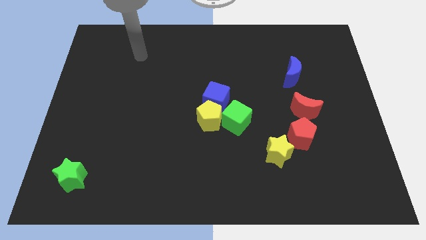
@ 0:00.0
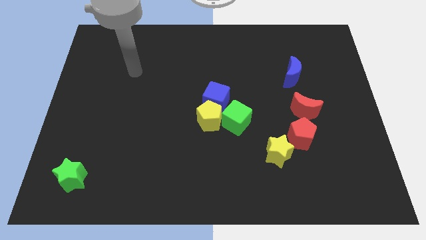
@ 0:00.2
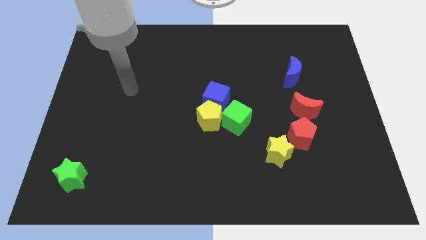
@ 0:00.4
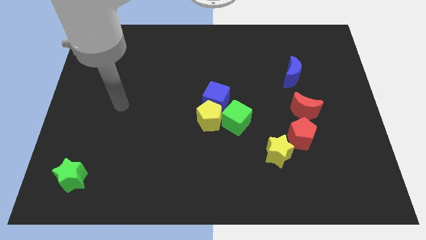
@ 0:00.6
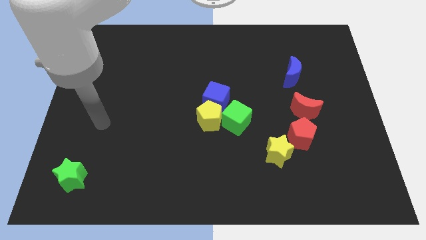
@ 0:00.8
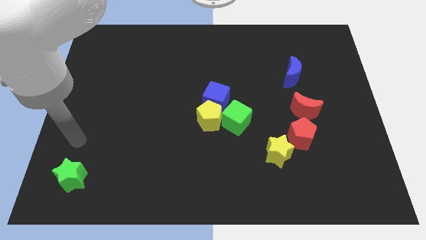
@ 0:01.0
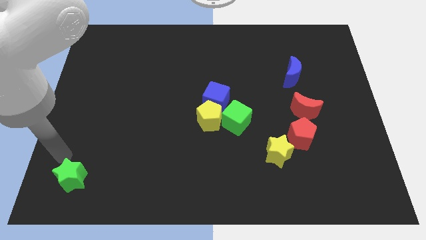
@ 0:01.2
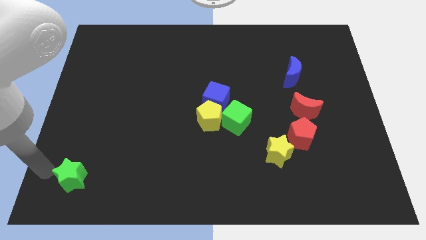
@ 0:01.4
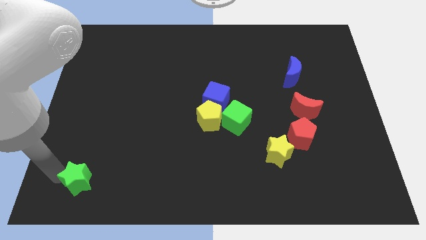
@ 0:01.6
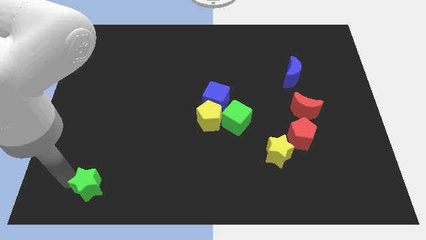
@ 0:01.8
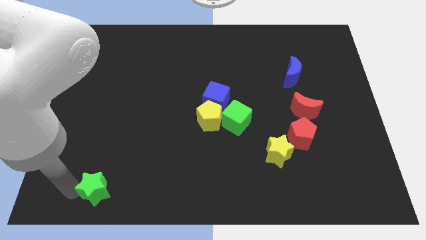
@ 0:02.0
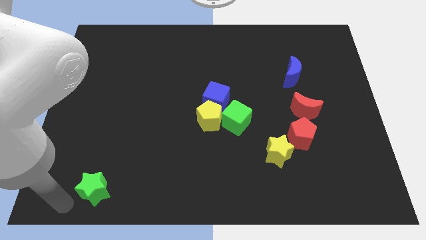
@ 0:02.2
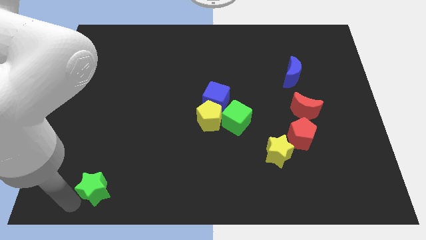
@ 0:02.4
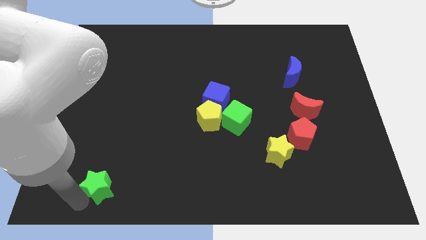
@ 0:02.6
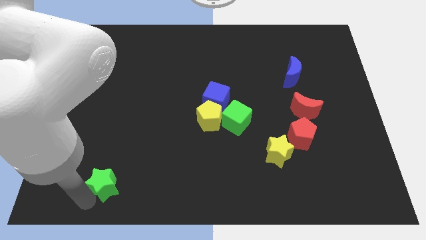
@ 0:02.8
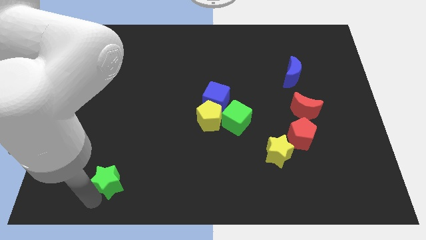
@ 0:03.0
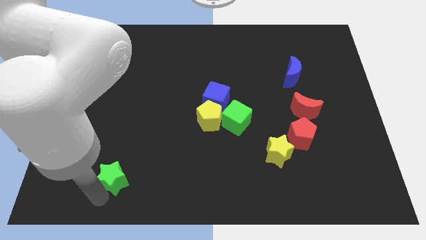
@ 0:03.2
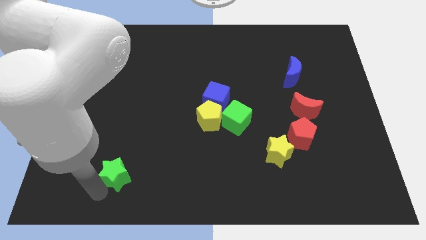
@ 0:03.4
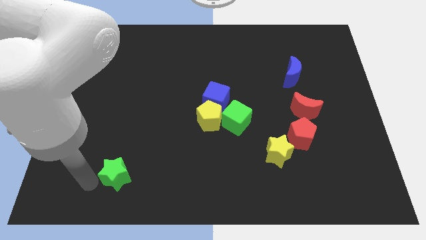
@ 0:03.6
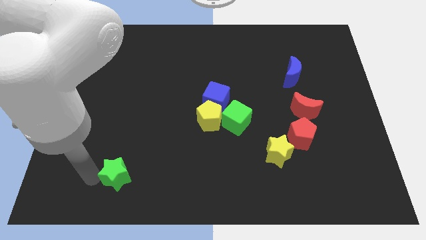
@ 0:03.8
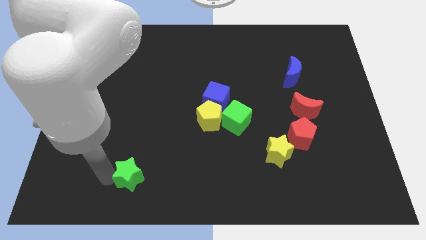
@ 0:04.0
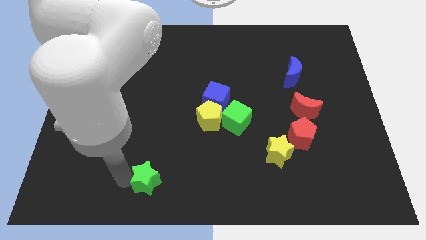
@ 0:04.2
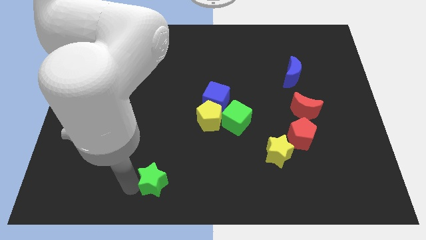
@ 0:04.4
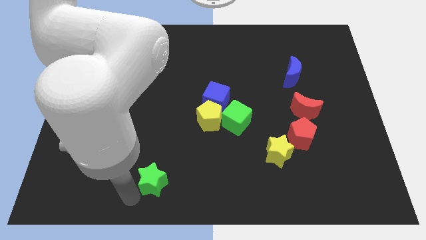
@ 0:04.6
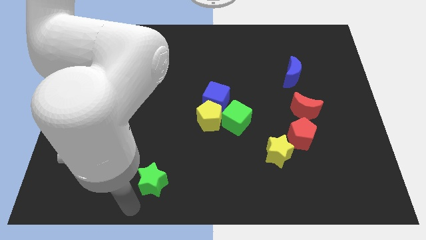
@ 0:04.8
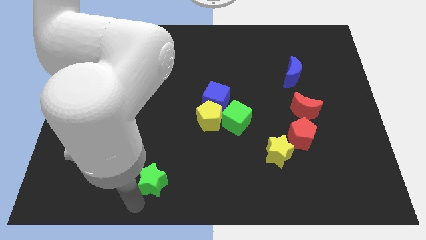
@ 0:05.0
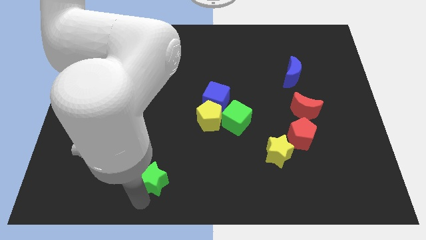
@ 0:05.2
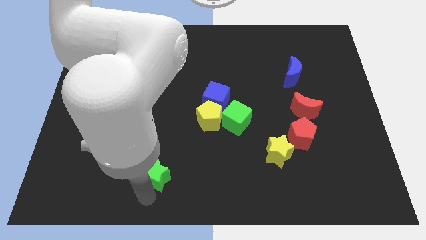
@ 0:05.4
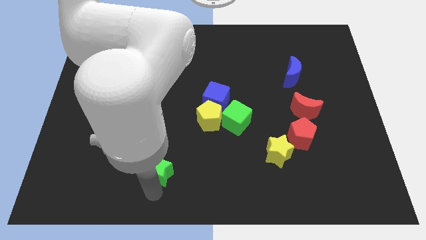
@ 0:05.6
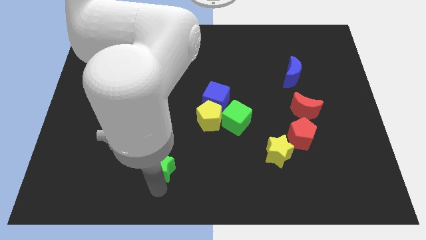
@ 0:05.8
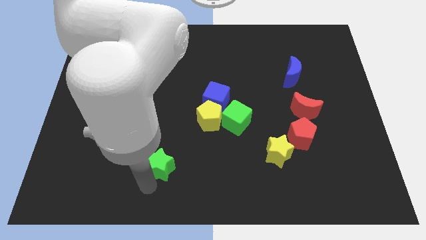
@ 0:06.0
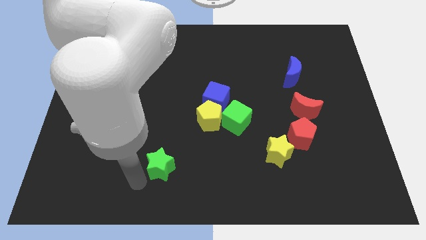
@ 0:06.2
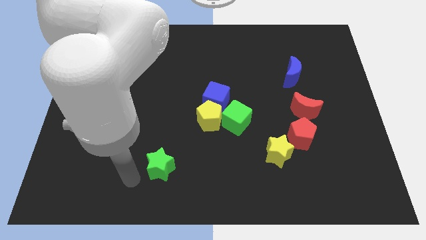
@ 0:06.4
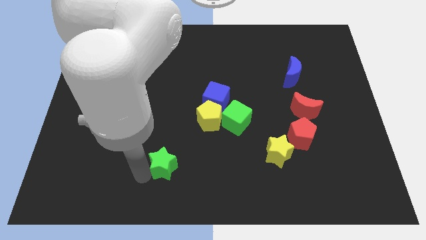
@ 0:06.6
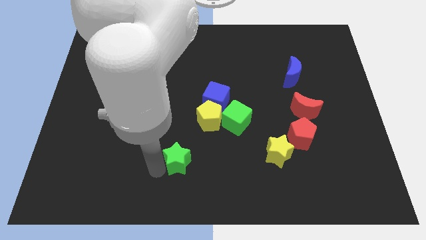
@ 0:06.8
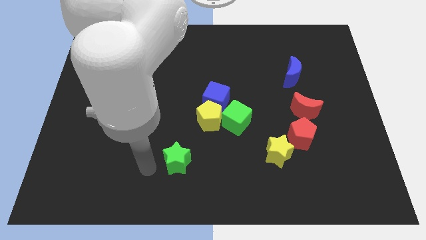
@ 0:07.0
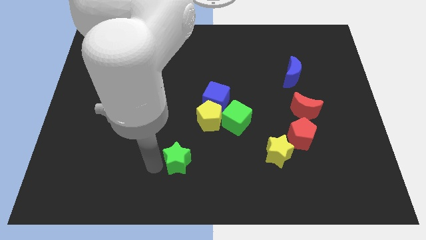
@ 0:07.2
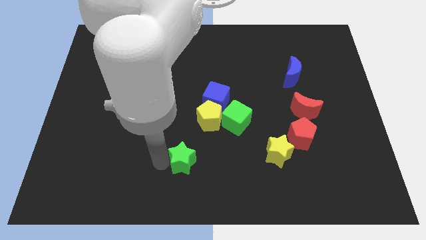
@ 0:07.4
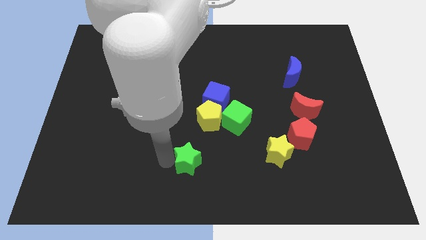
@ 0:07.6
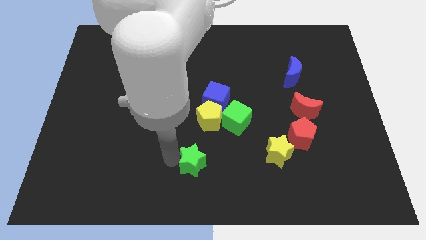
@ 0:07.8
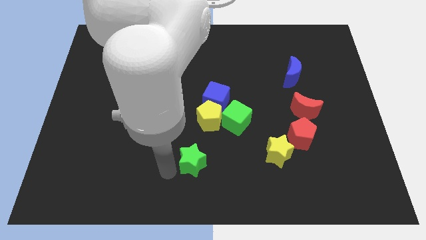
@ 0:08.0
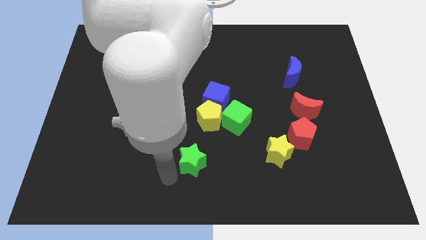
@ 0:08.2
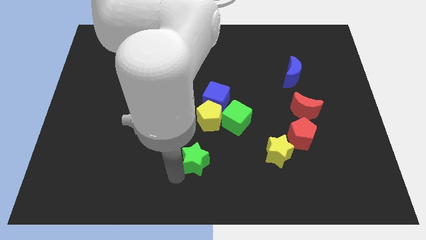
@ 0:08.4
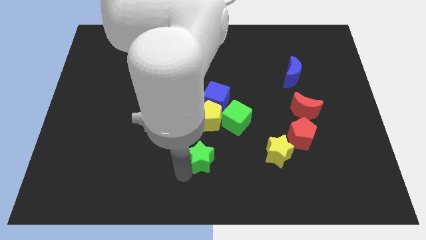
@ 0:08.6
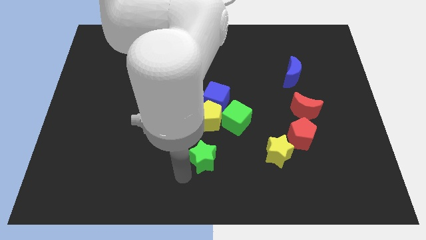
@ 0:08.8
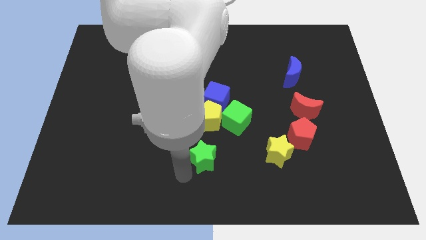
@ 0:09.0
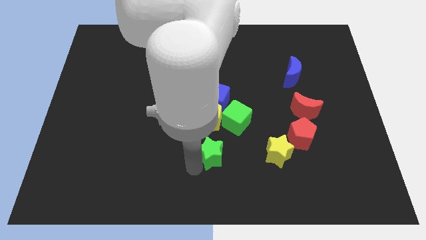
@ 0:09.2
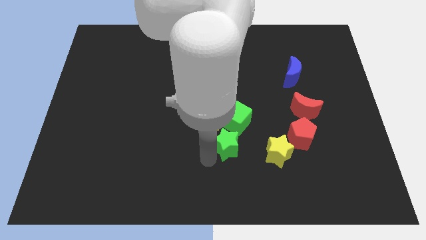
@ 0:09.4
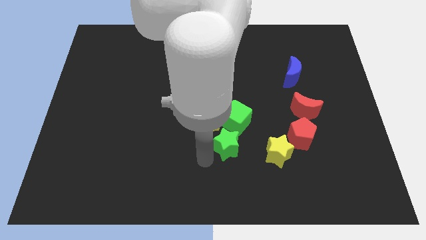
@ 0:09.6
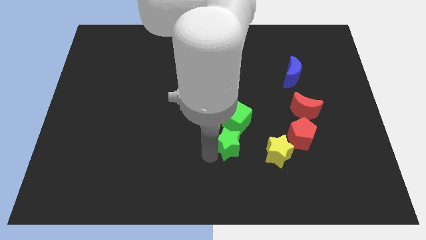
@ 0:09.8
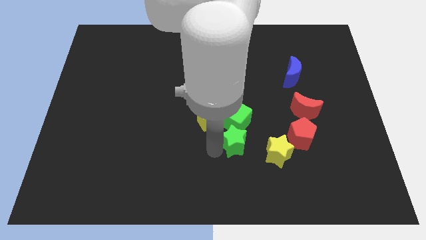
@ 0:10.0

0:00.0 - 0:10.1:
push the green star to the top left side of the yellow star

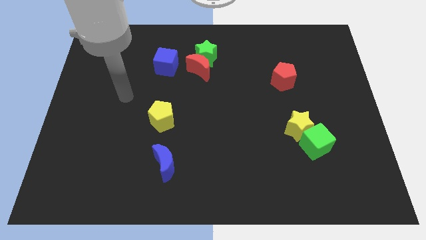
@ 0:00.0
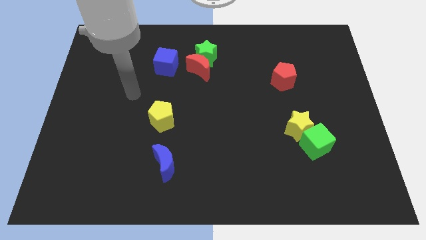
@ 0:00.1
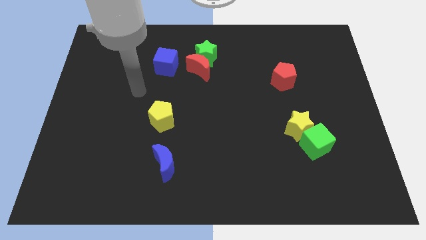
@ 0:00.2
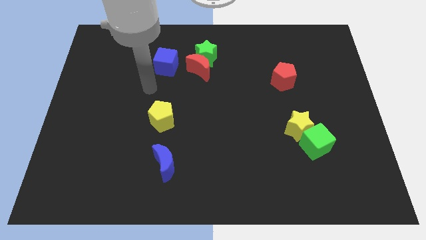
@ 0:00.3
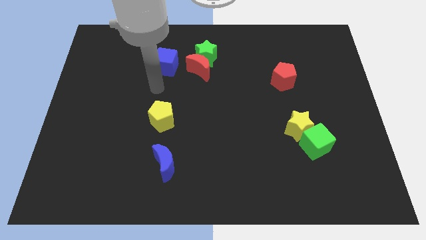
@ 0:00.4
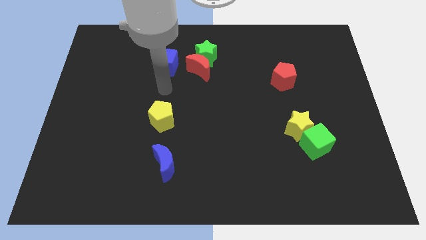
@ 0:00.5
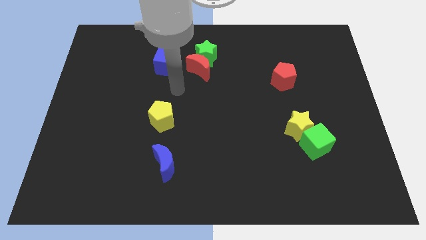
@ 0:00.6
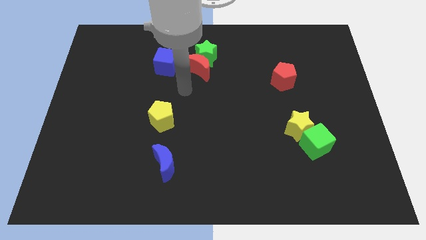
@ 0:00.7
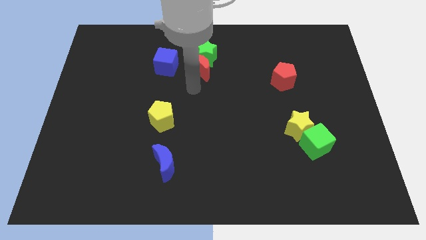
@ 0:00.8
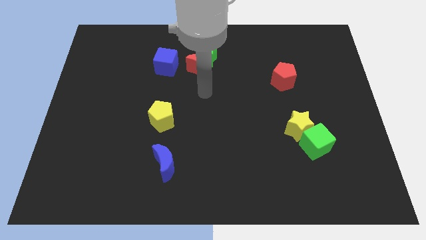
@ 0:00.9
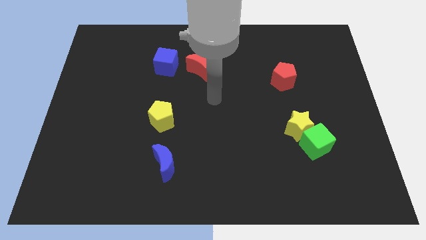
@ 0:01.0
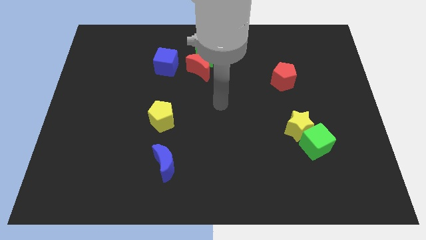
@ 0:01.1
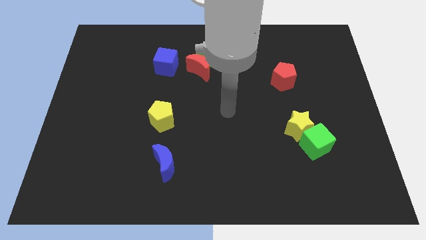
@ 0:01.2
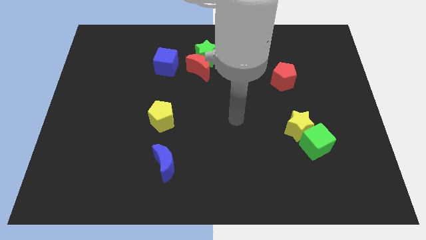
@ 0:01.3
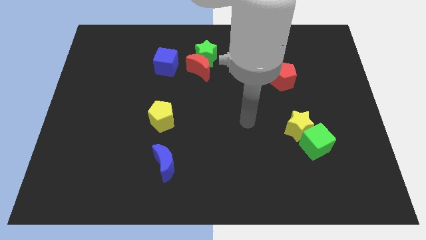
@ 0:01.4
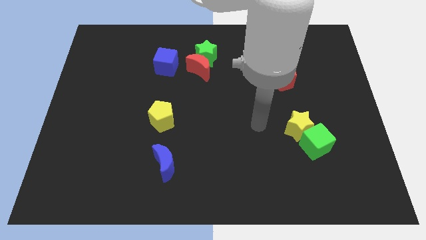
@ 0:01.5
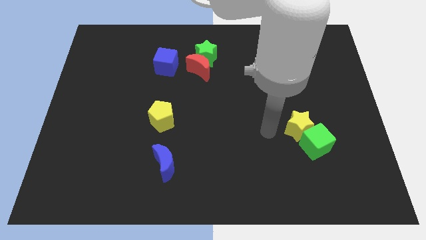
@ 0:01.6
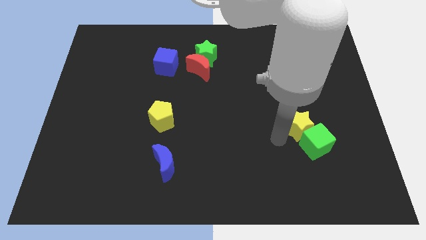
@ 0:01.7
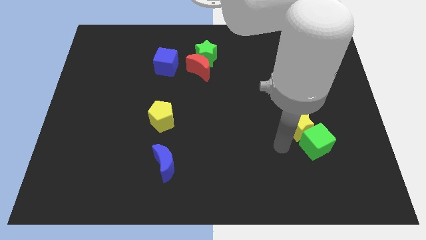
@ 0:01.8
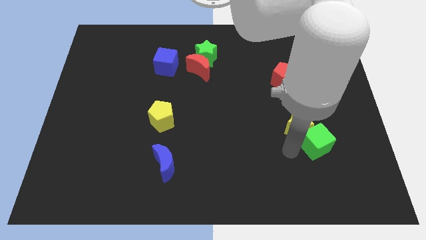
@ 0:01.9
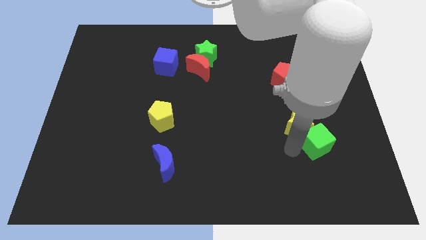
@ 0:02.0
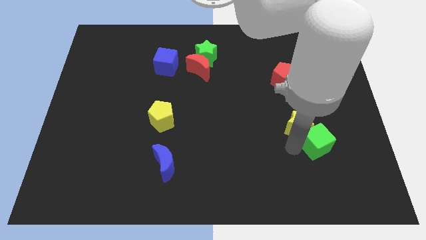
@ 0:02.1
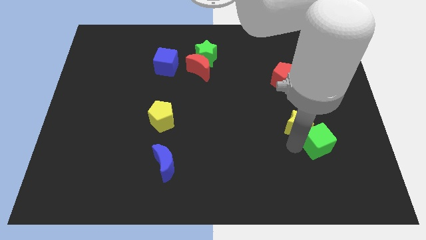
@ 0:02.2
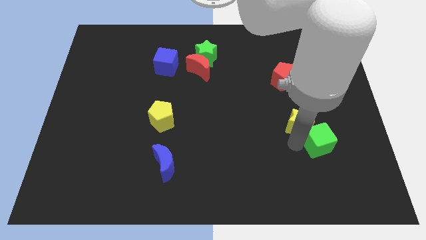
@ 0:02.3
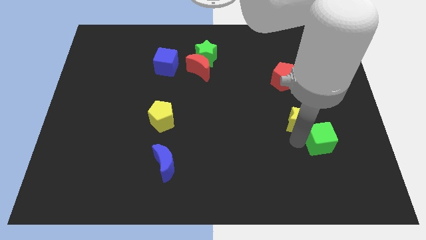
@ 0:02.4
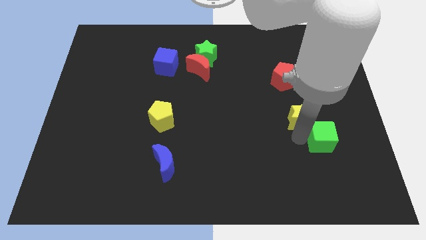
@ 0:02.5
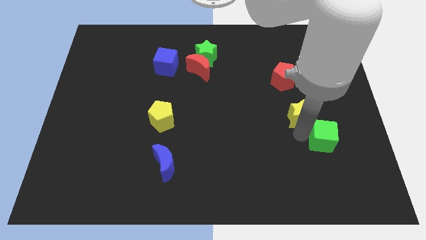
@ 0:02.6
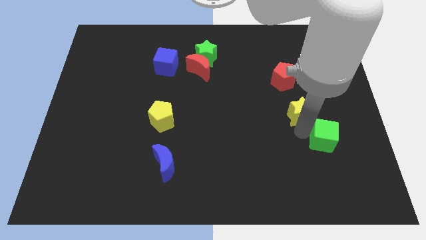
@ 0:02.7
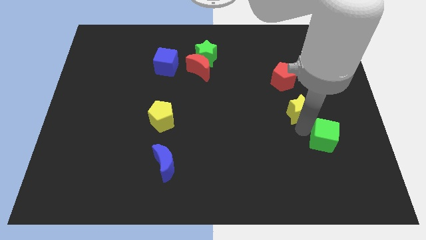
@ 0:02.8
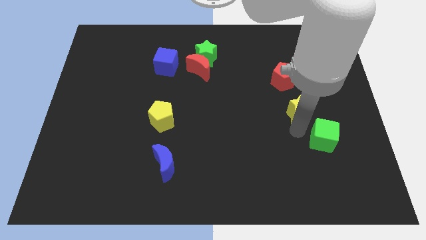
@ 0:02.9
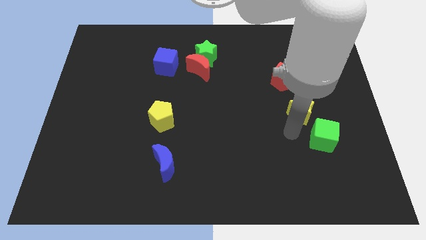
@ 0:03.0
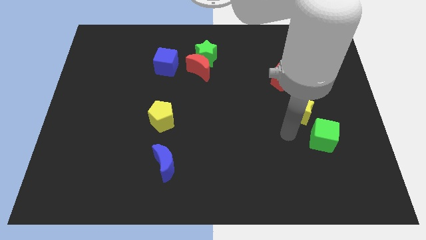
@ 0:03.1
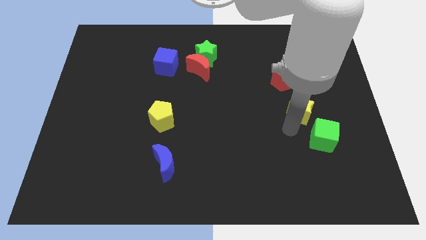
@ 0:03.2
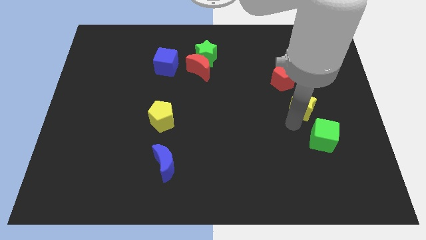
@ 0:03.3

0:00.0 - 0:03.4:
put the yellow star to the bottom right side of the red pentagon

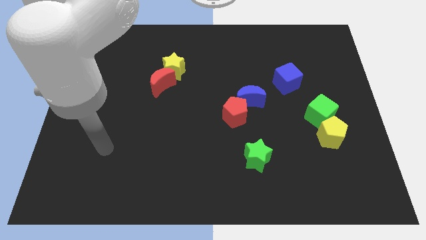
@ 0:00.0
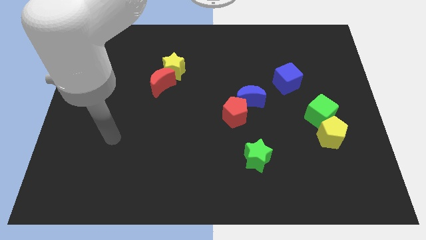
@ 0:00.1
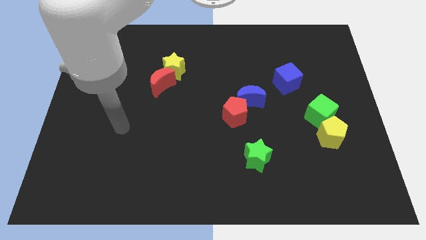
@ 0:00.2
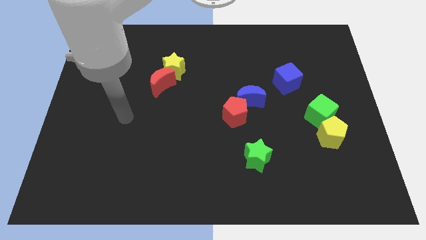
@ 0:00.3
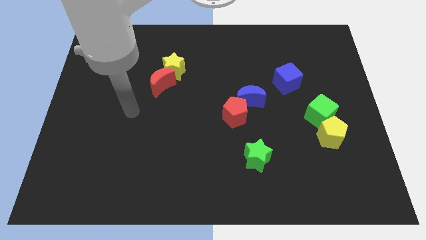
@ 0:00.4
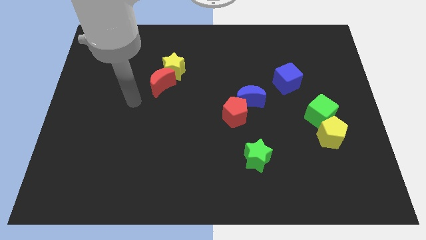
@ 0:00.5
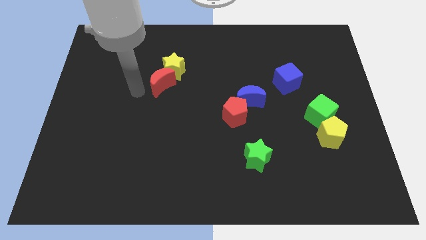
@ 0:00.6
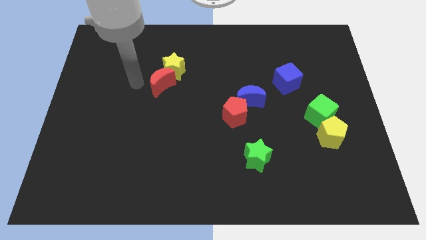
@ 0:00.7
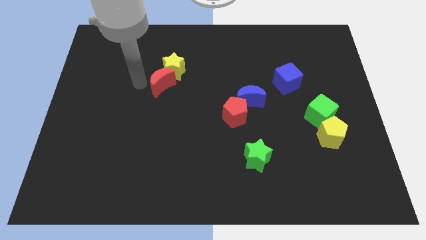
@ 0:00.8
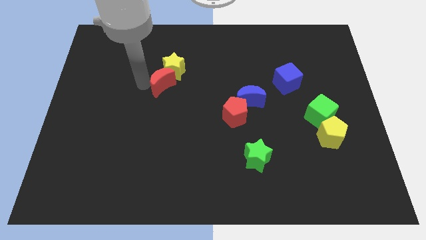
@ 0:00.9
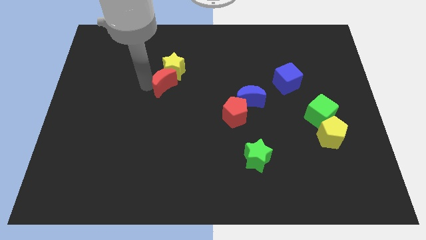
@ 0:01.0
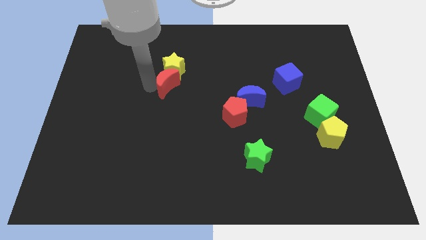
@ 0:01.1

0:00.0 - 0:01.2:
push the red moon to the bottom right side of the yellow star
